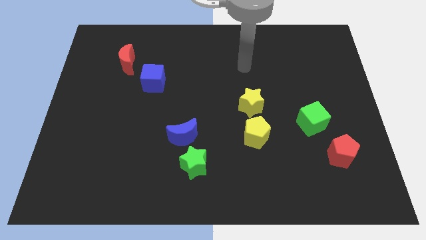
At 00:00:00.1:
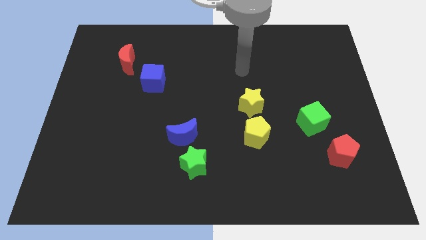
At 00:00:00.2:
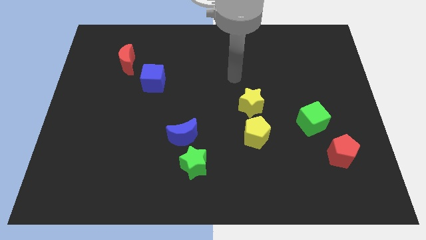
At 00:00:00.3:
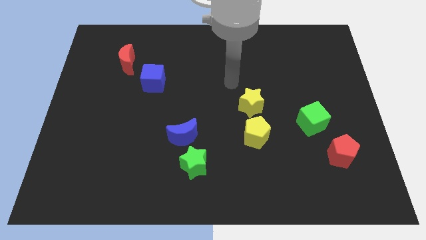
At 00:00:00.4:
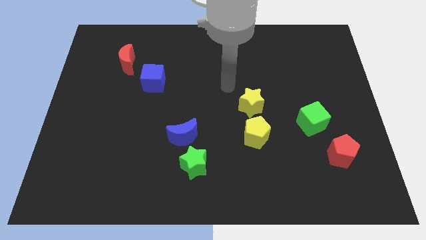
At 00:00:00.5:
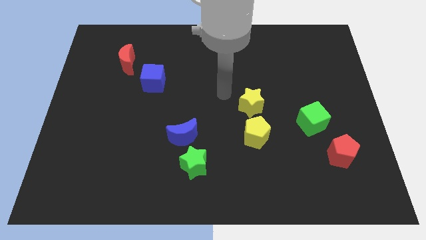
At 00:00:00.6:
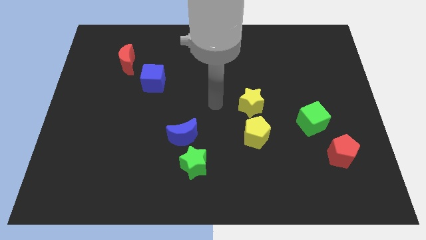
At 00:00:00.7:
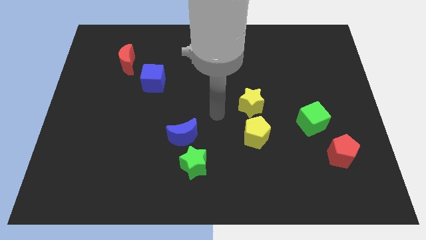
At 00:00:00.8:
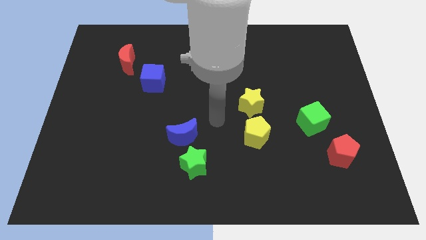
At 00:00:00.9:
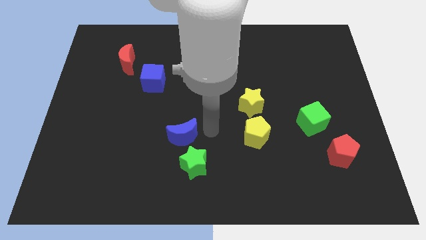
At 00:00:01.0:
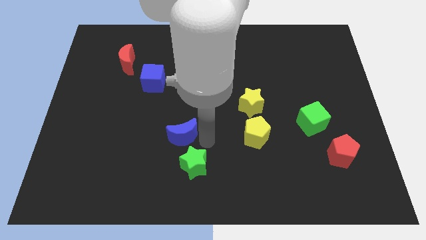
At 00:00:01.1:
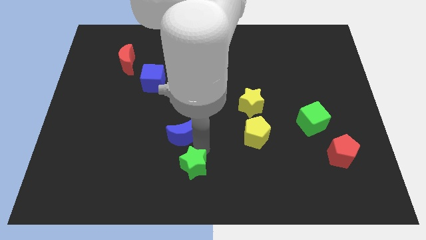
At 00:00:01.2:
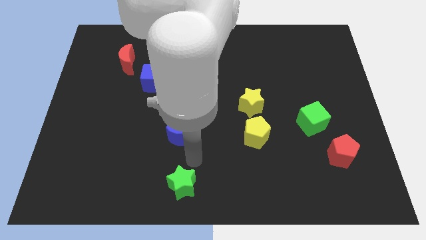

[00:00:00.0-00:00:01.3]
separate the blue moon from the green star

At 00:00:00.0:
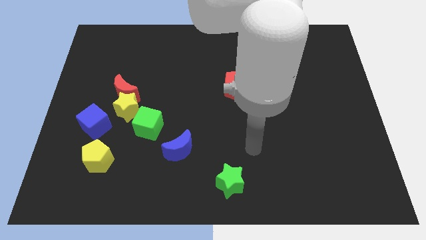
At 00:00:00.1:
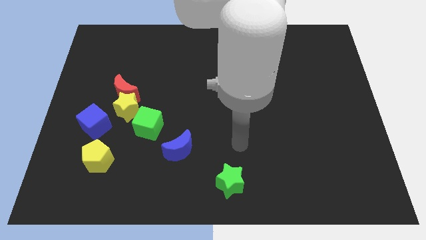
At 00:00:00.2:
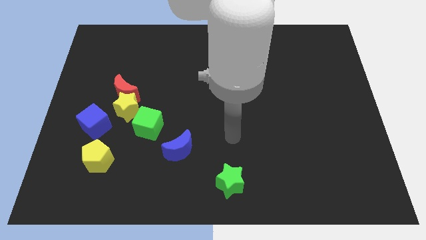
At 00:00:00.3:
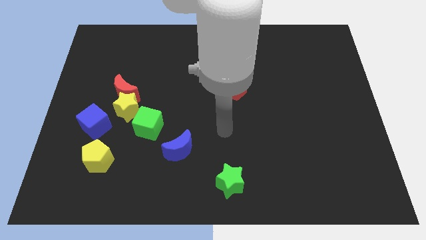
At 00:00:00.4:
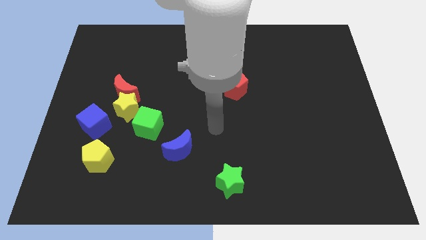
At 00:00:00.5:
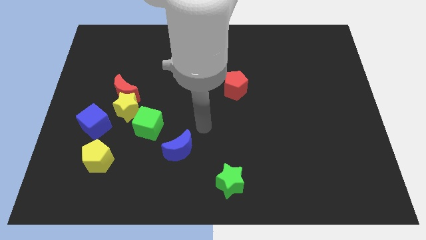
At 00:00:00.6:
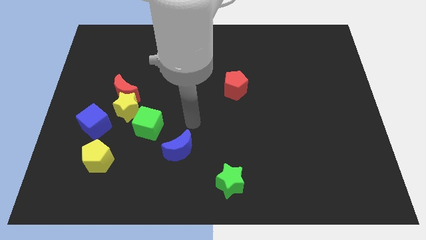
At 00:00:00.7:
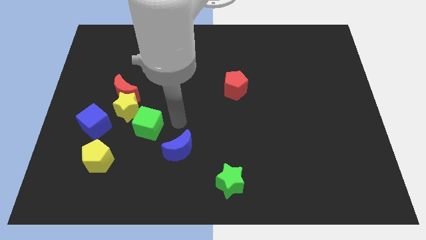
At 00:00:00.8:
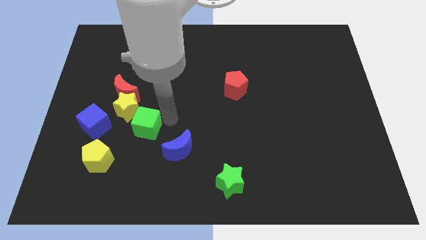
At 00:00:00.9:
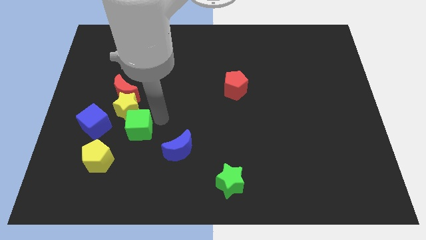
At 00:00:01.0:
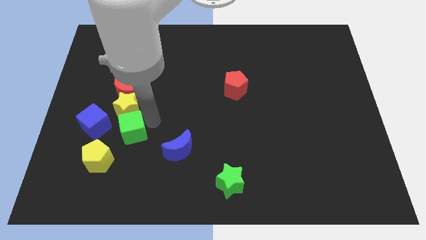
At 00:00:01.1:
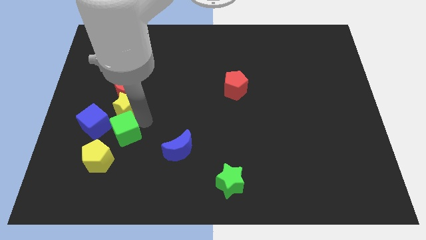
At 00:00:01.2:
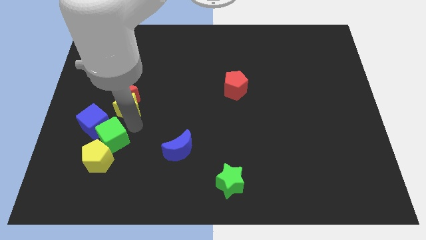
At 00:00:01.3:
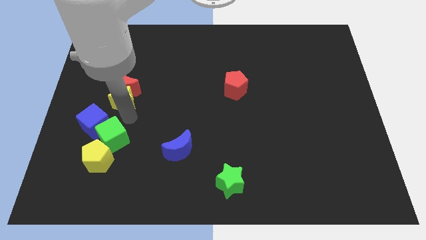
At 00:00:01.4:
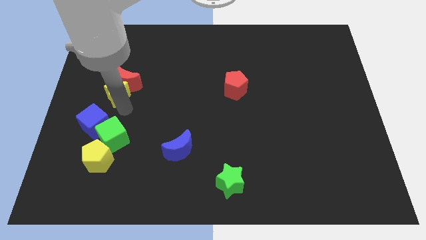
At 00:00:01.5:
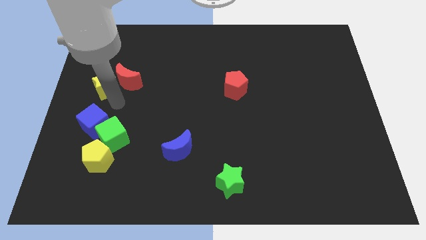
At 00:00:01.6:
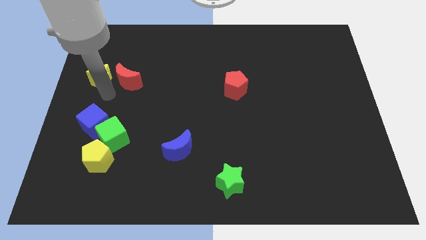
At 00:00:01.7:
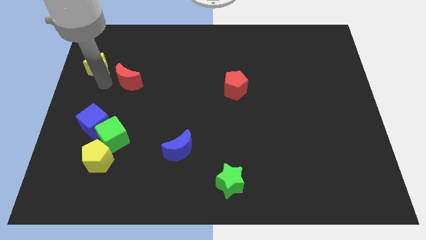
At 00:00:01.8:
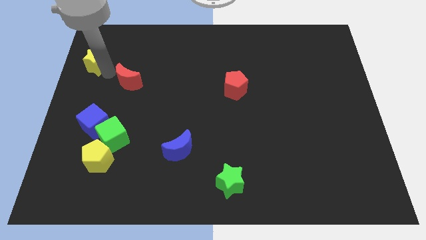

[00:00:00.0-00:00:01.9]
pull the red moon apart from the yellow star

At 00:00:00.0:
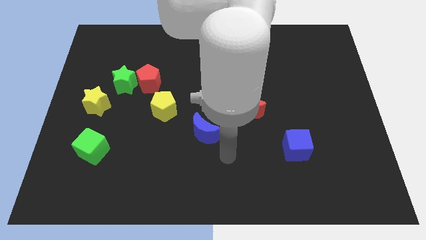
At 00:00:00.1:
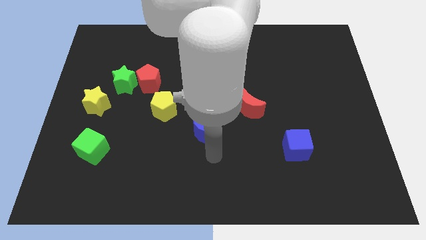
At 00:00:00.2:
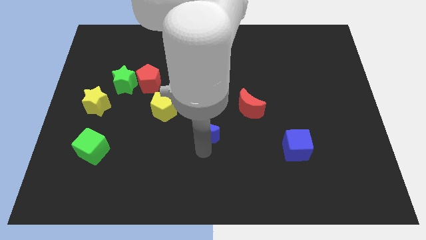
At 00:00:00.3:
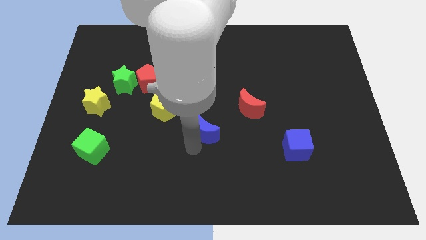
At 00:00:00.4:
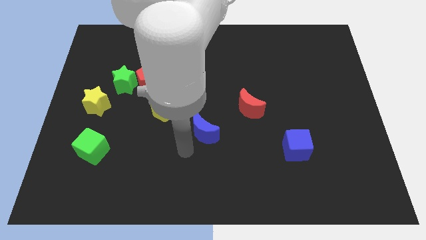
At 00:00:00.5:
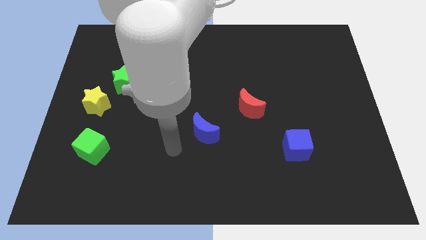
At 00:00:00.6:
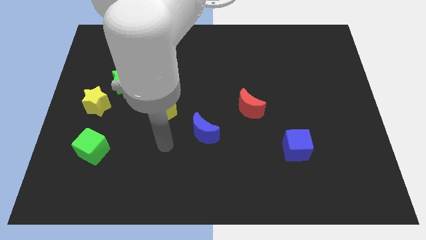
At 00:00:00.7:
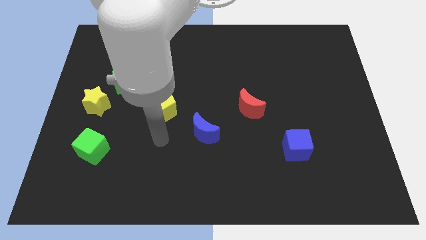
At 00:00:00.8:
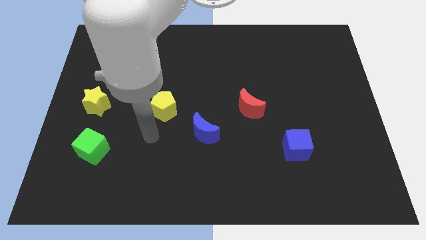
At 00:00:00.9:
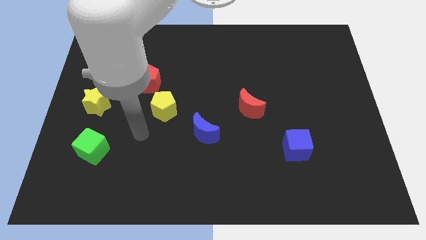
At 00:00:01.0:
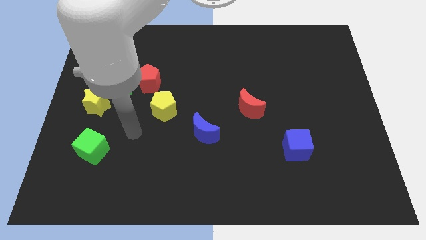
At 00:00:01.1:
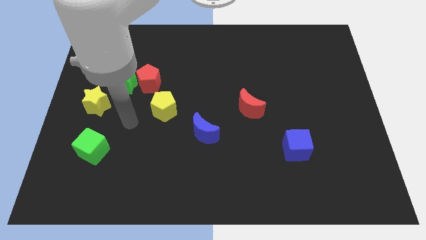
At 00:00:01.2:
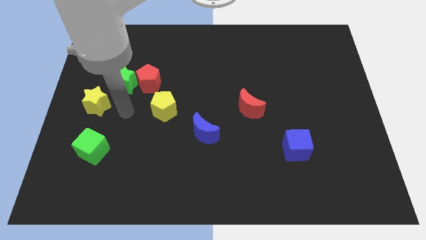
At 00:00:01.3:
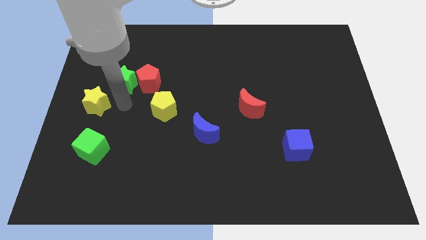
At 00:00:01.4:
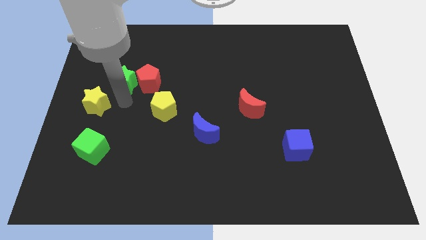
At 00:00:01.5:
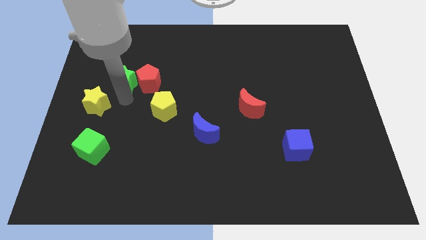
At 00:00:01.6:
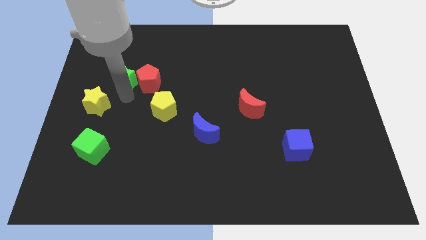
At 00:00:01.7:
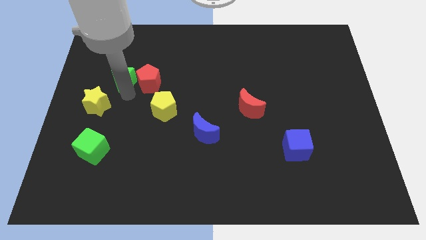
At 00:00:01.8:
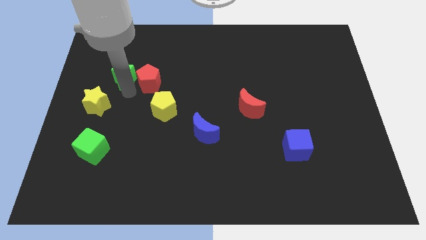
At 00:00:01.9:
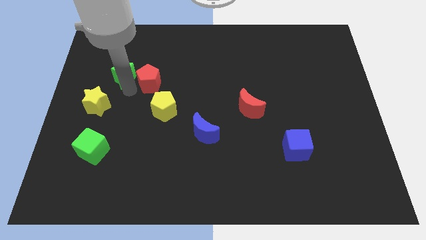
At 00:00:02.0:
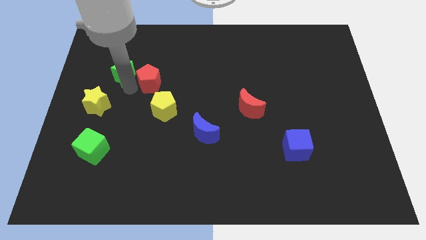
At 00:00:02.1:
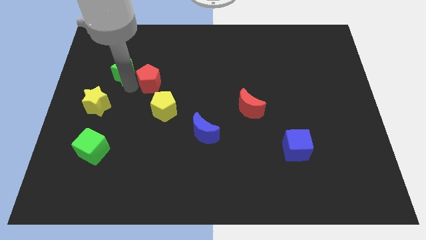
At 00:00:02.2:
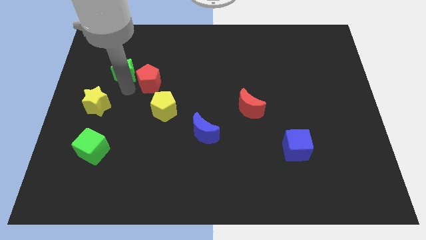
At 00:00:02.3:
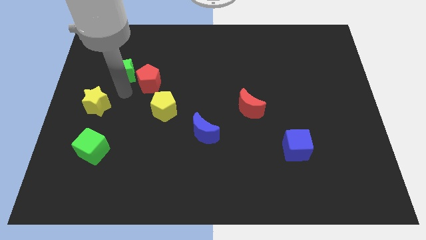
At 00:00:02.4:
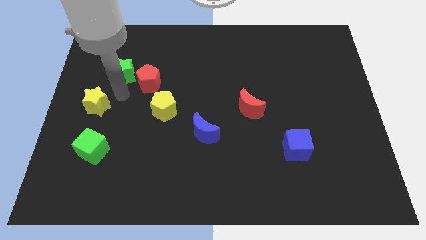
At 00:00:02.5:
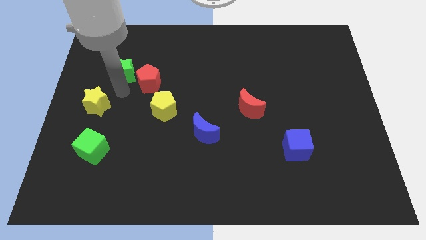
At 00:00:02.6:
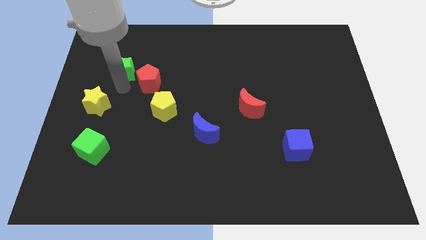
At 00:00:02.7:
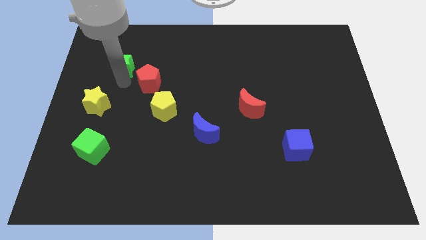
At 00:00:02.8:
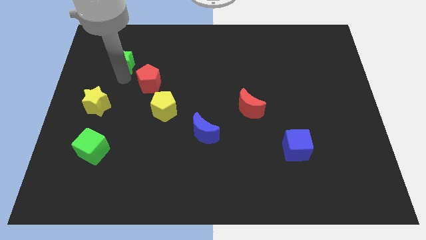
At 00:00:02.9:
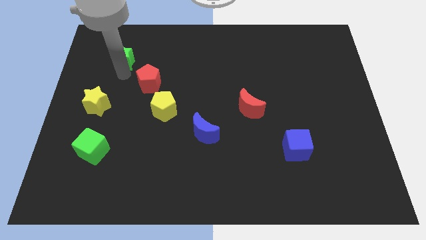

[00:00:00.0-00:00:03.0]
separate the green star from the red pentagon and yellow star

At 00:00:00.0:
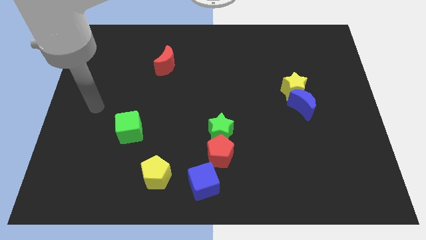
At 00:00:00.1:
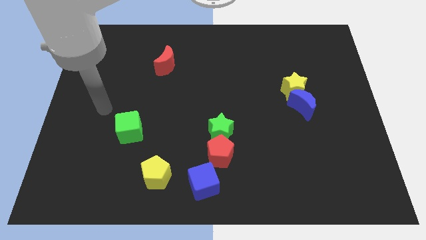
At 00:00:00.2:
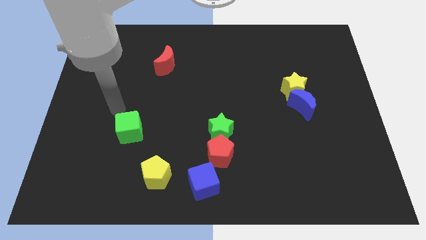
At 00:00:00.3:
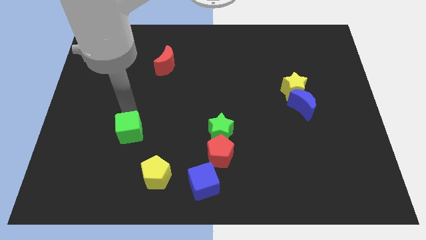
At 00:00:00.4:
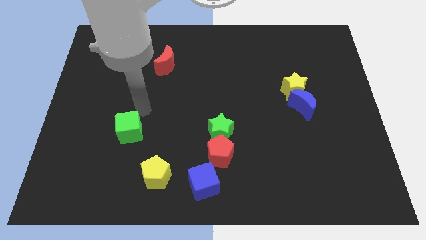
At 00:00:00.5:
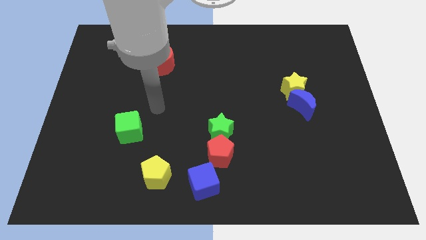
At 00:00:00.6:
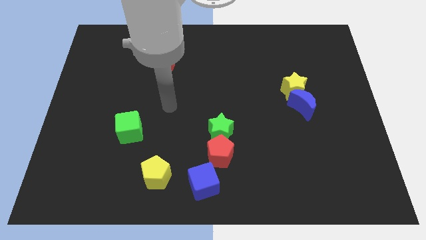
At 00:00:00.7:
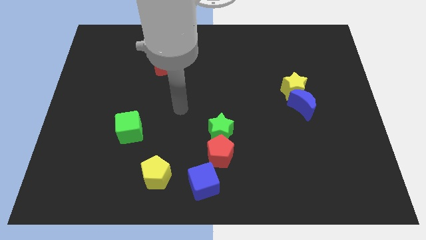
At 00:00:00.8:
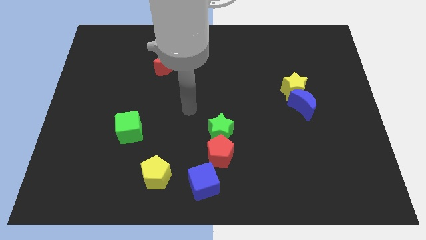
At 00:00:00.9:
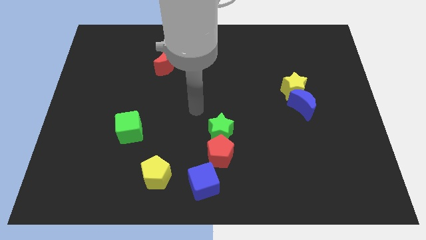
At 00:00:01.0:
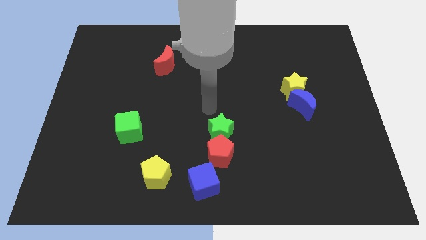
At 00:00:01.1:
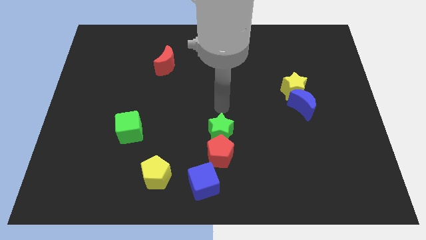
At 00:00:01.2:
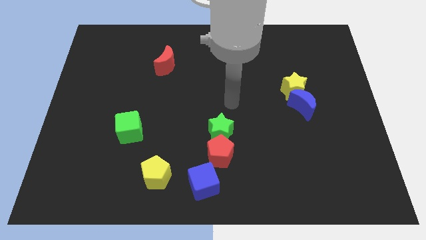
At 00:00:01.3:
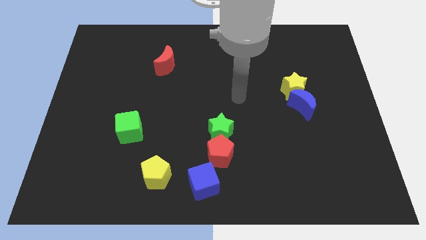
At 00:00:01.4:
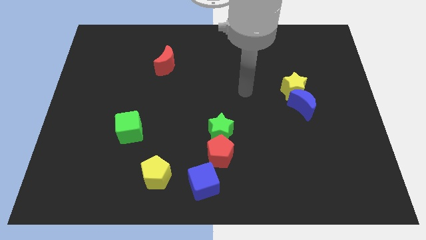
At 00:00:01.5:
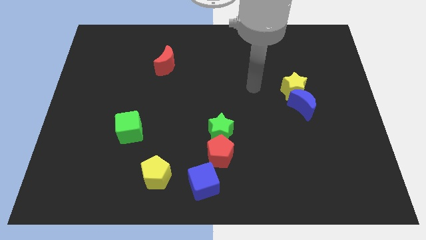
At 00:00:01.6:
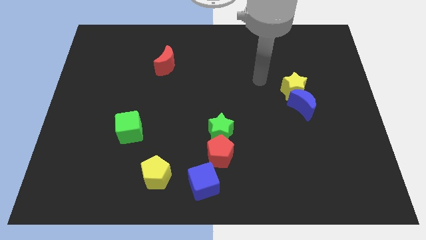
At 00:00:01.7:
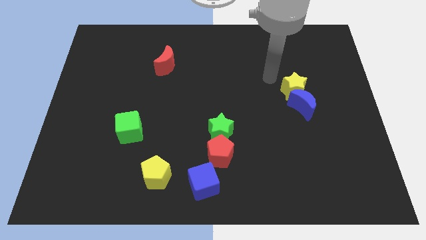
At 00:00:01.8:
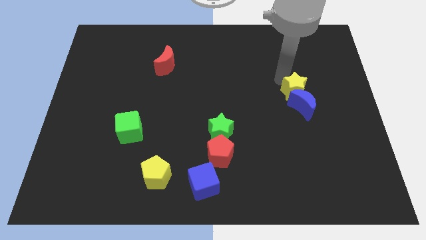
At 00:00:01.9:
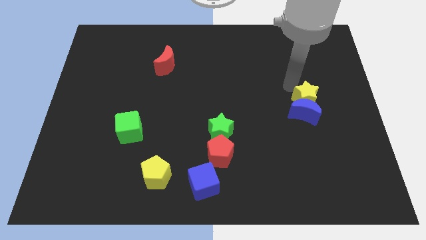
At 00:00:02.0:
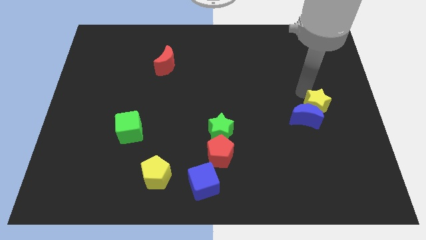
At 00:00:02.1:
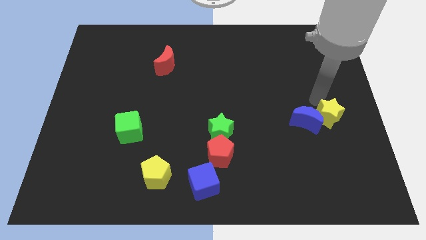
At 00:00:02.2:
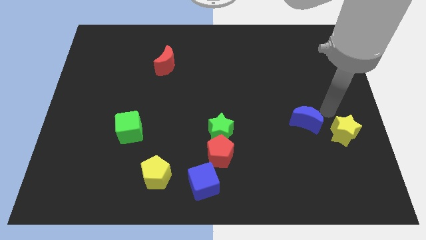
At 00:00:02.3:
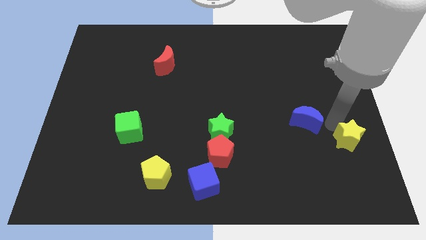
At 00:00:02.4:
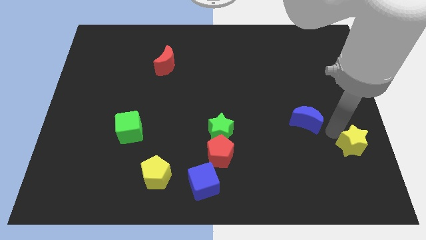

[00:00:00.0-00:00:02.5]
move the blue moon away from the yellow star

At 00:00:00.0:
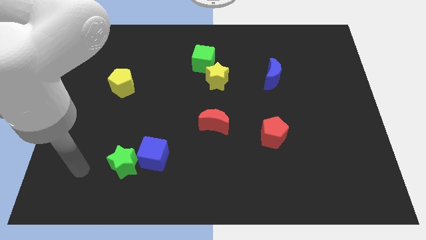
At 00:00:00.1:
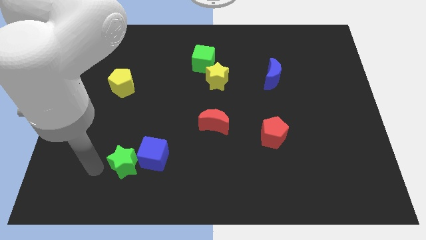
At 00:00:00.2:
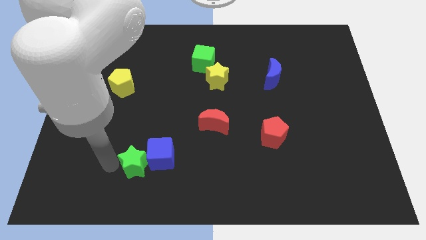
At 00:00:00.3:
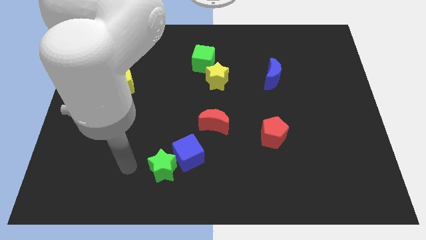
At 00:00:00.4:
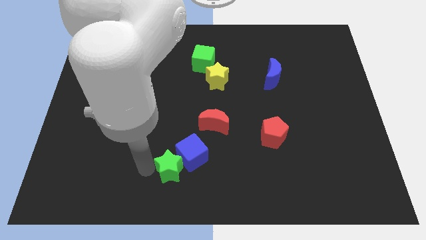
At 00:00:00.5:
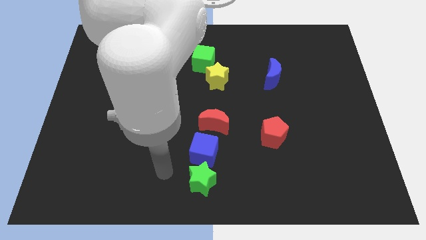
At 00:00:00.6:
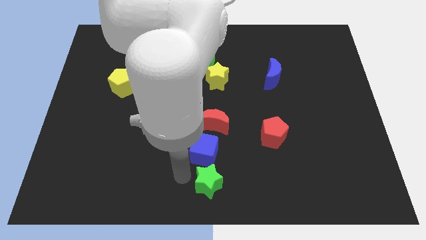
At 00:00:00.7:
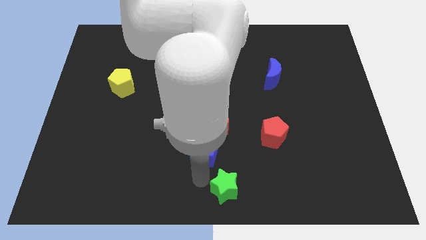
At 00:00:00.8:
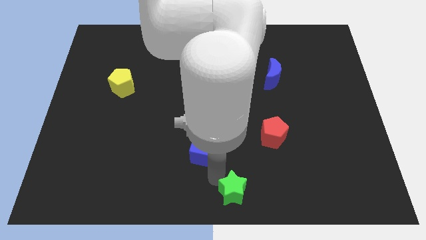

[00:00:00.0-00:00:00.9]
move the blue cube away from the green star
